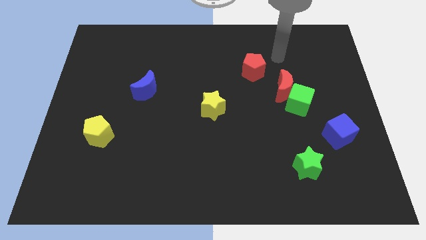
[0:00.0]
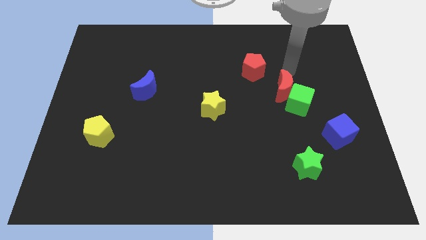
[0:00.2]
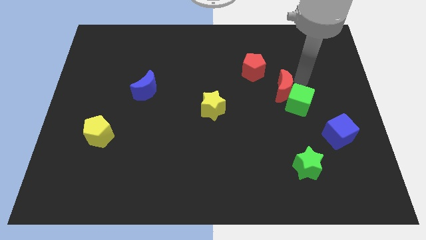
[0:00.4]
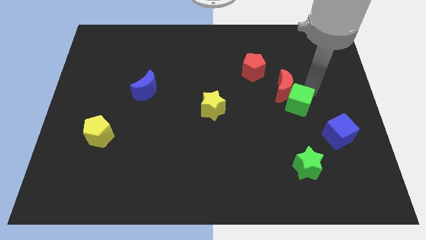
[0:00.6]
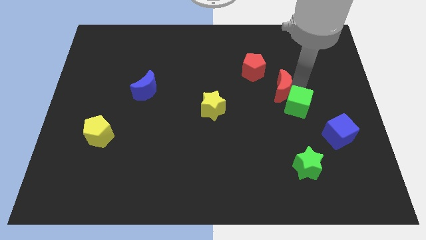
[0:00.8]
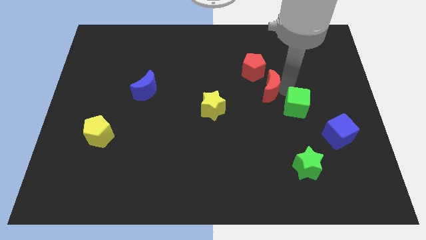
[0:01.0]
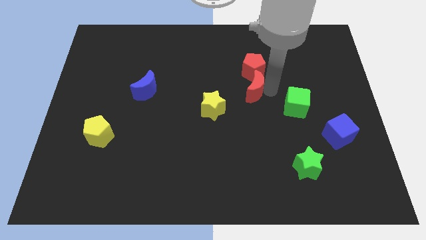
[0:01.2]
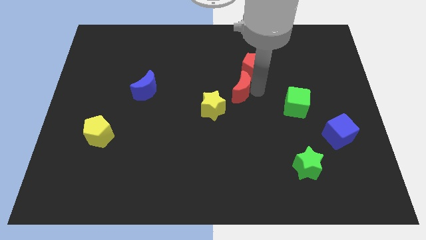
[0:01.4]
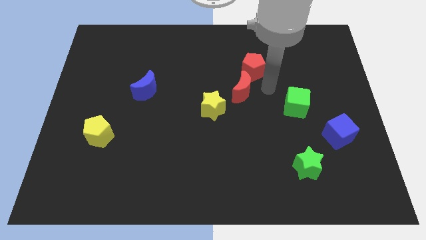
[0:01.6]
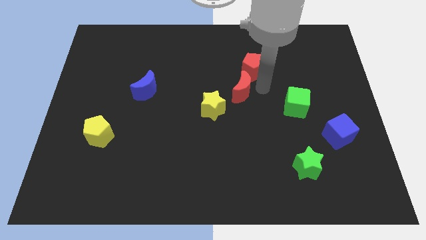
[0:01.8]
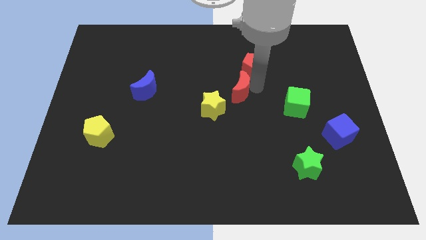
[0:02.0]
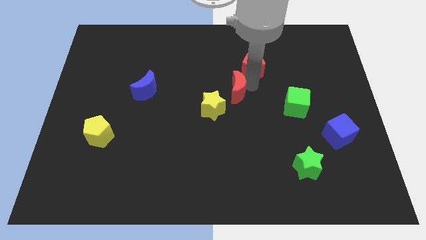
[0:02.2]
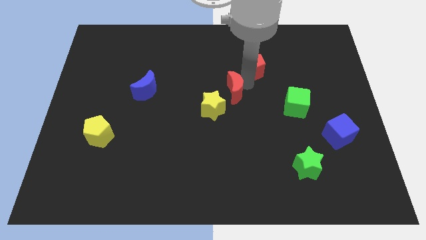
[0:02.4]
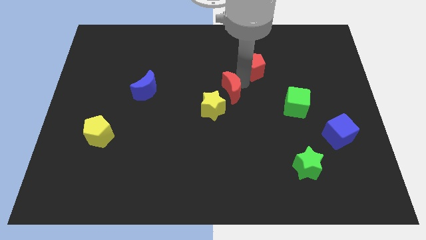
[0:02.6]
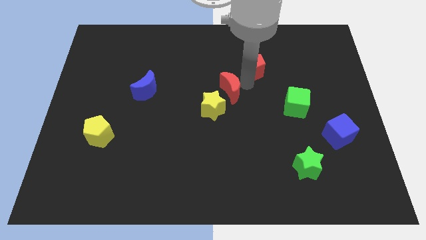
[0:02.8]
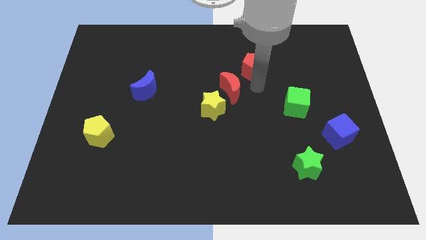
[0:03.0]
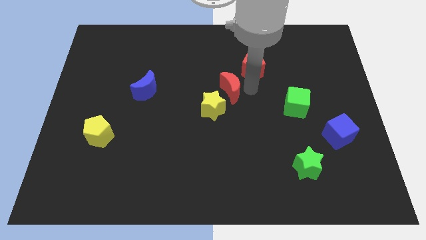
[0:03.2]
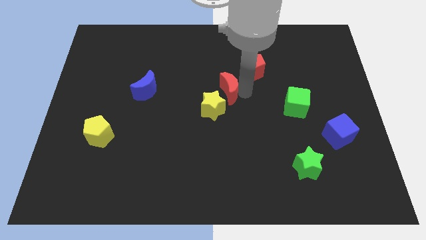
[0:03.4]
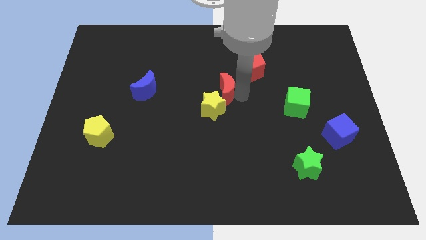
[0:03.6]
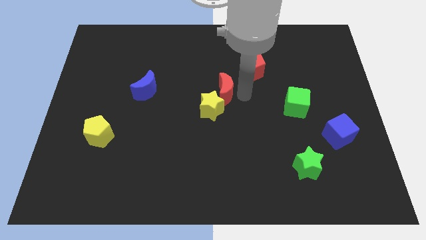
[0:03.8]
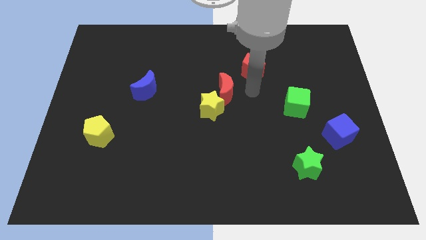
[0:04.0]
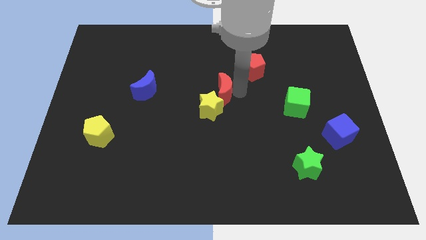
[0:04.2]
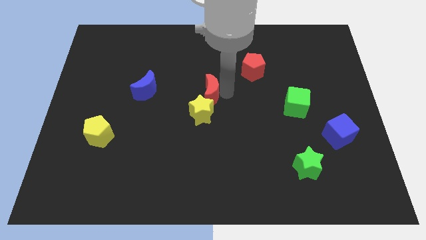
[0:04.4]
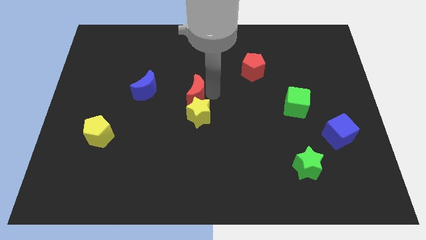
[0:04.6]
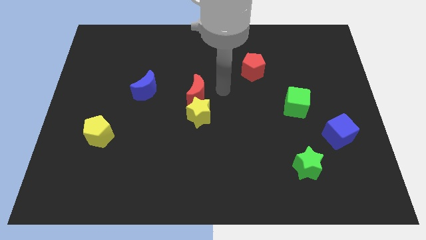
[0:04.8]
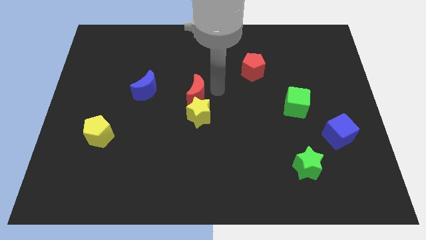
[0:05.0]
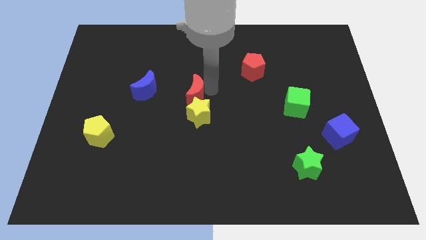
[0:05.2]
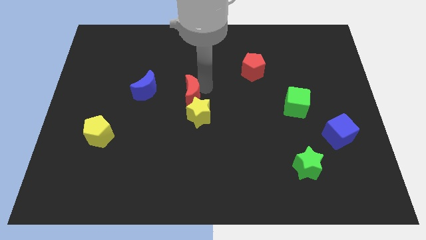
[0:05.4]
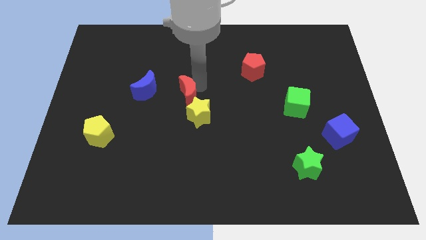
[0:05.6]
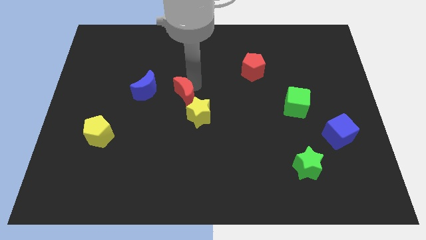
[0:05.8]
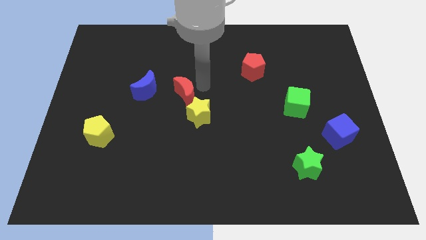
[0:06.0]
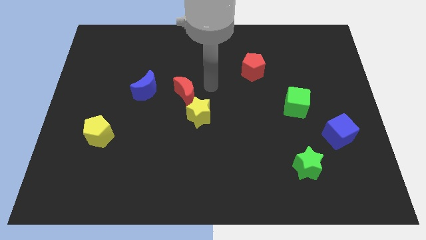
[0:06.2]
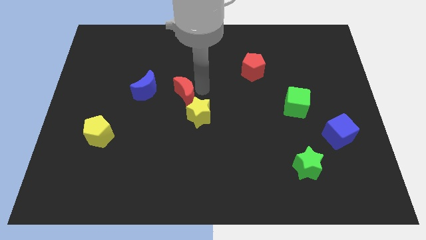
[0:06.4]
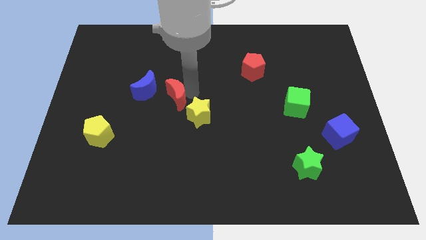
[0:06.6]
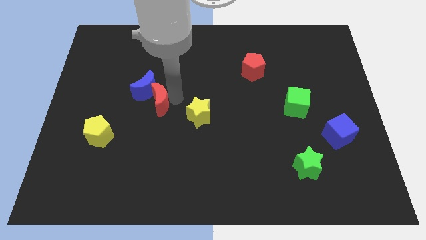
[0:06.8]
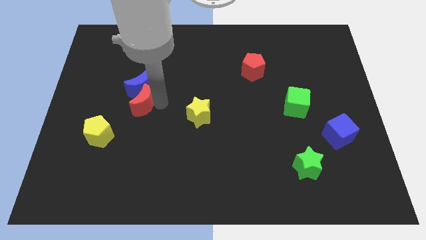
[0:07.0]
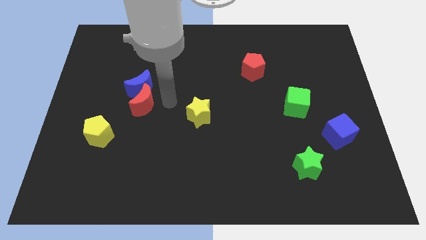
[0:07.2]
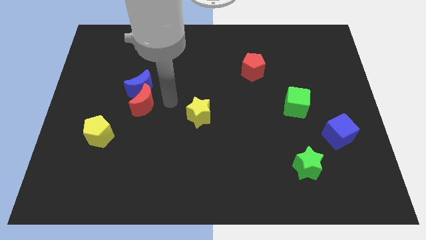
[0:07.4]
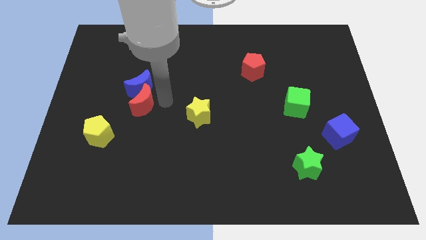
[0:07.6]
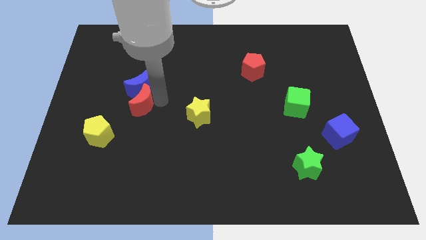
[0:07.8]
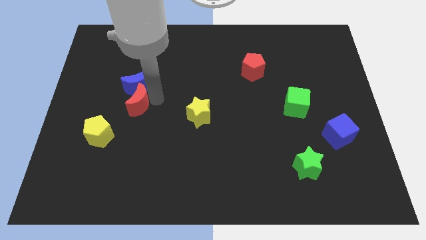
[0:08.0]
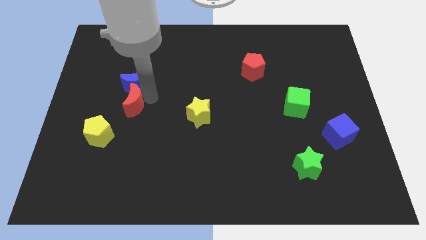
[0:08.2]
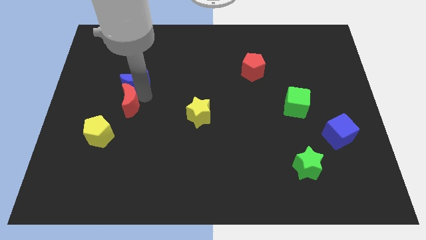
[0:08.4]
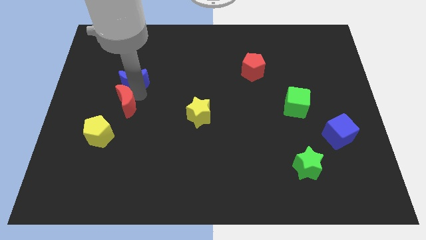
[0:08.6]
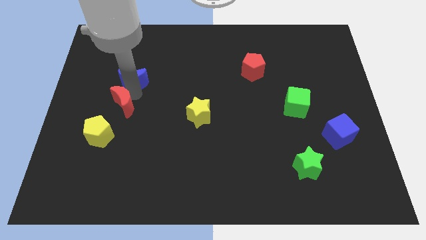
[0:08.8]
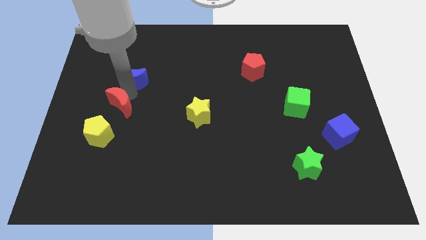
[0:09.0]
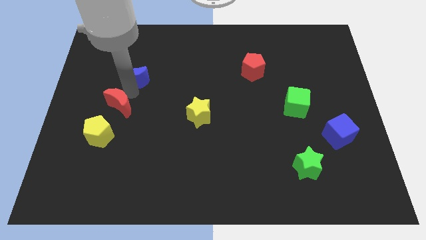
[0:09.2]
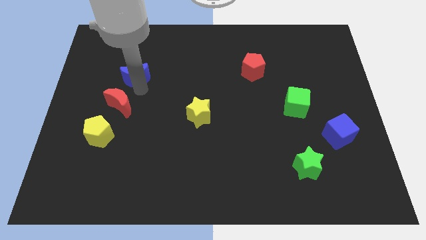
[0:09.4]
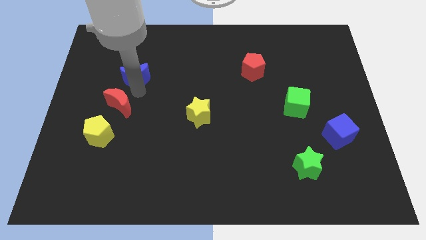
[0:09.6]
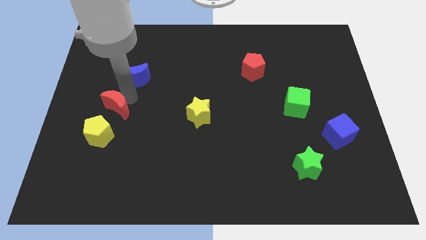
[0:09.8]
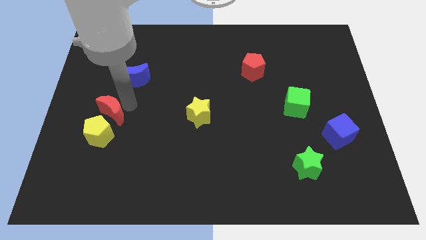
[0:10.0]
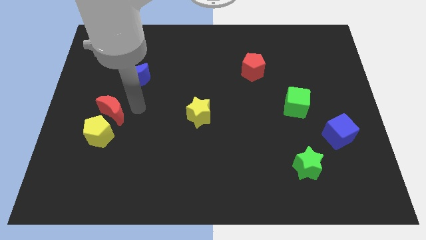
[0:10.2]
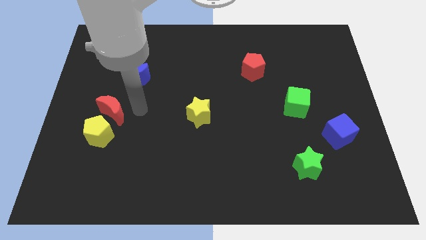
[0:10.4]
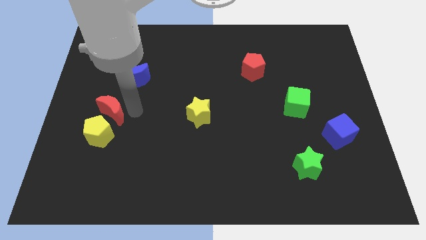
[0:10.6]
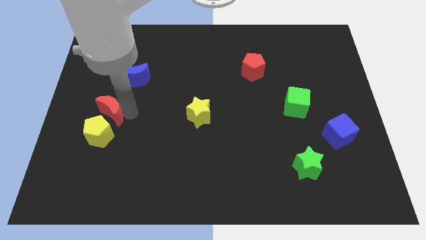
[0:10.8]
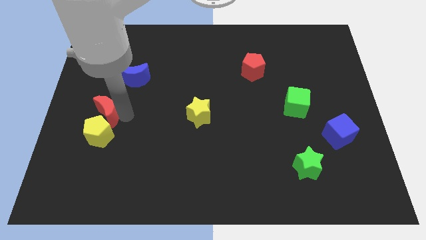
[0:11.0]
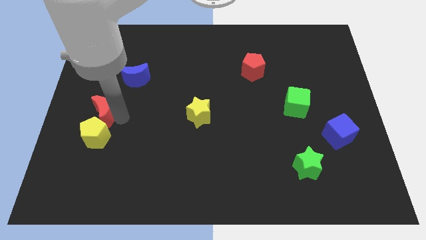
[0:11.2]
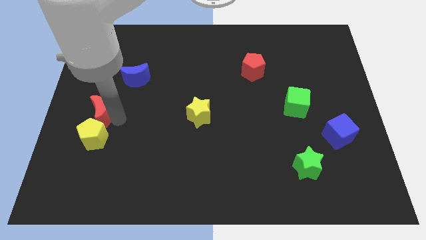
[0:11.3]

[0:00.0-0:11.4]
push the red moon to the left side

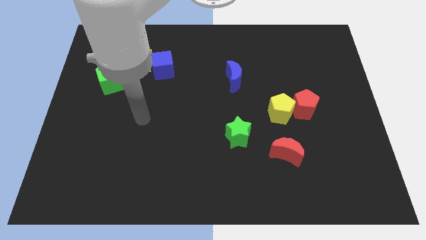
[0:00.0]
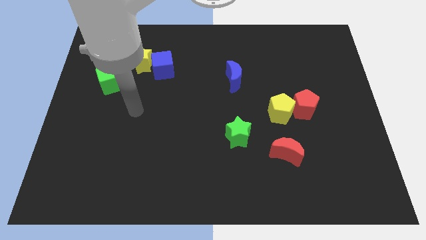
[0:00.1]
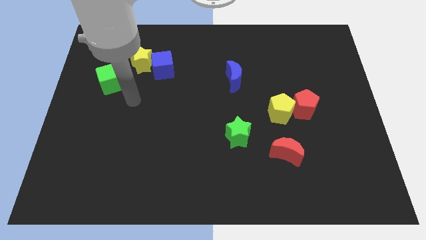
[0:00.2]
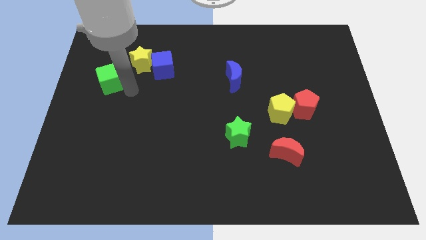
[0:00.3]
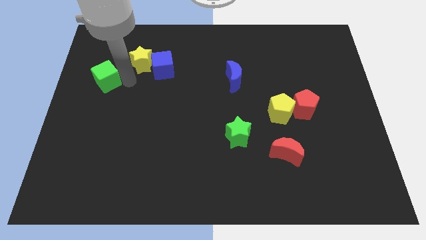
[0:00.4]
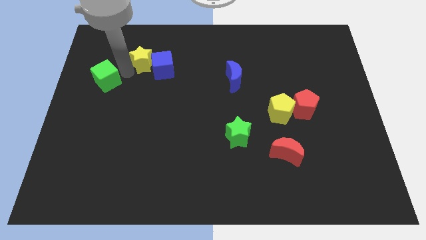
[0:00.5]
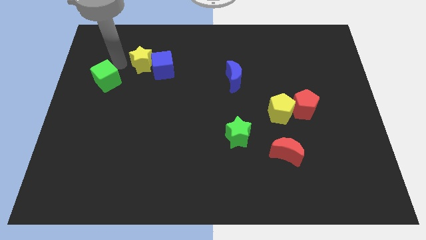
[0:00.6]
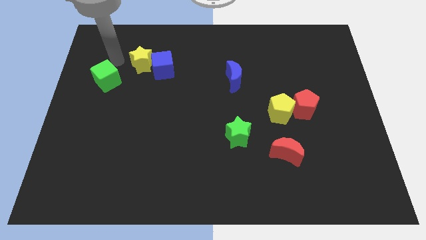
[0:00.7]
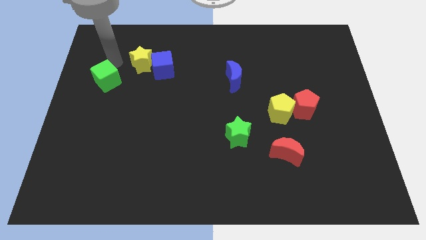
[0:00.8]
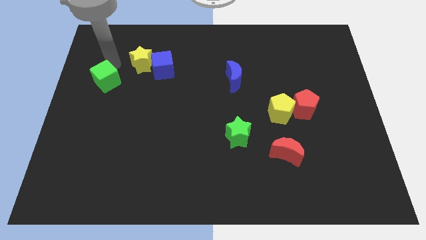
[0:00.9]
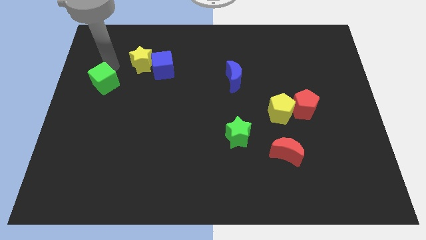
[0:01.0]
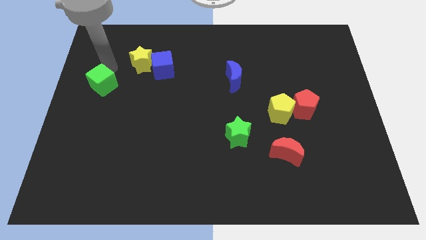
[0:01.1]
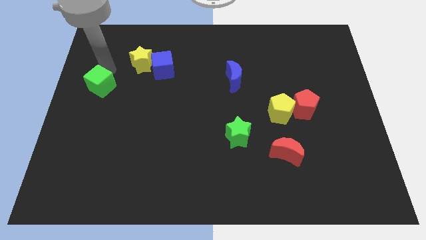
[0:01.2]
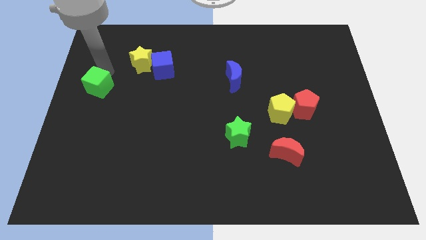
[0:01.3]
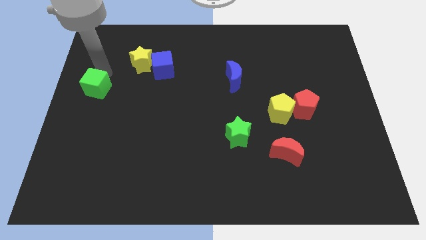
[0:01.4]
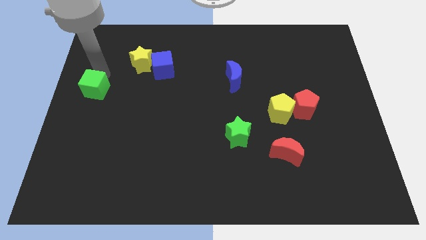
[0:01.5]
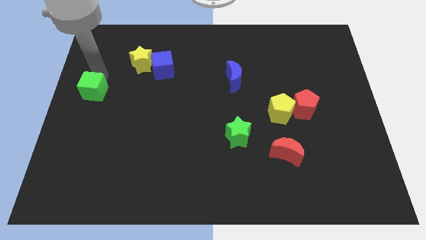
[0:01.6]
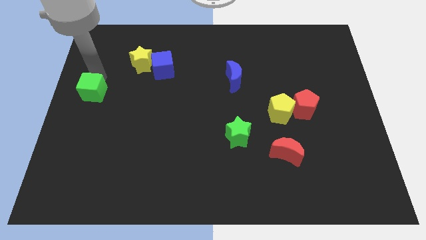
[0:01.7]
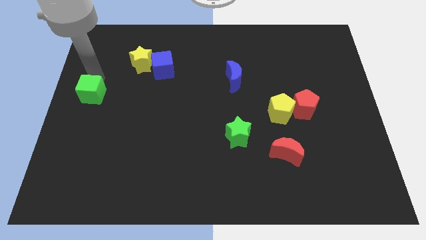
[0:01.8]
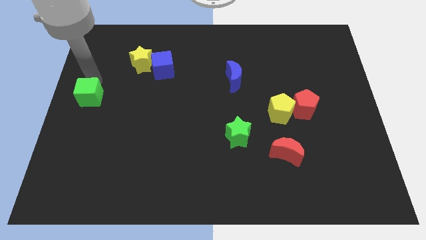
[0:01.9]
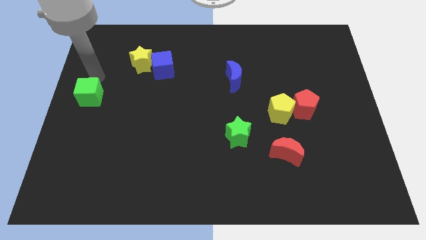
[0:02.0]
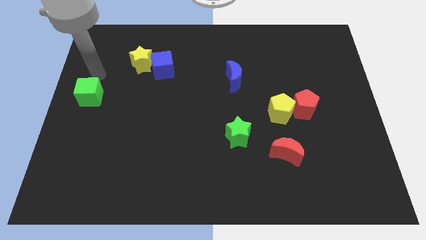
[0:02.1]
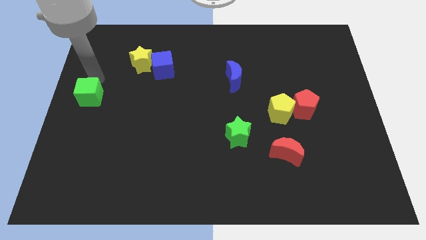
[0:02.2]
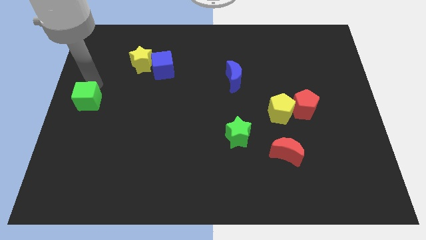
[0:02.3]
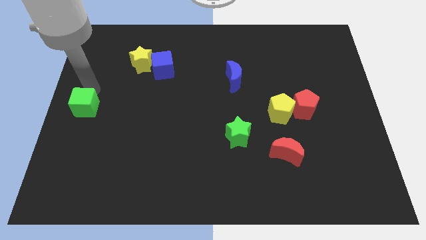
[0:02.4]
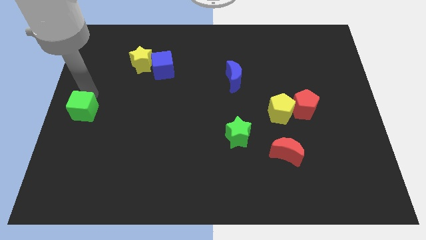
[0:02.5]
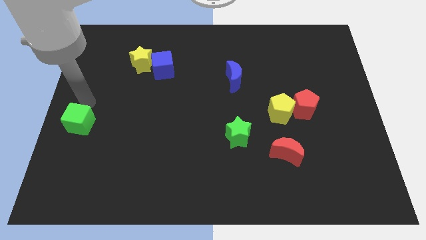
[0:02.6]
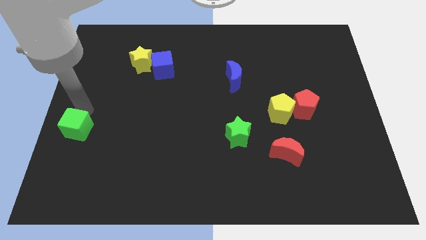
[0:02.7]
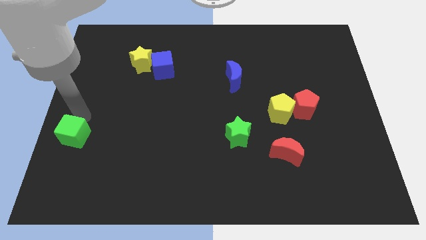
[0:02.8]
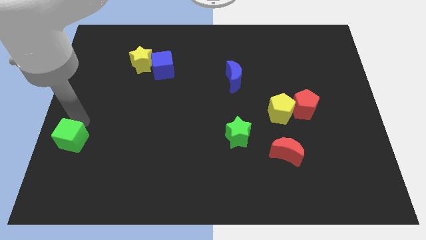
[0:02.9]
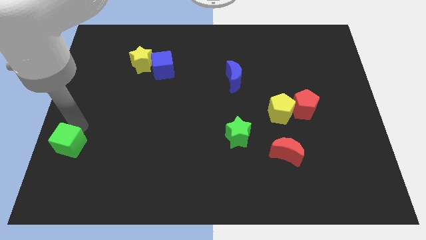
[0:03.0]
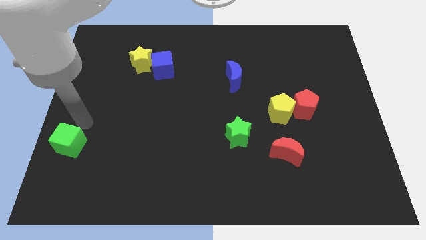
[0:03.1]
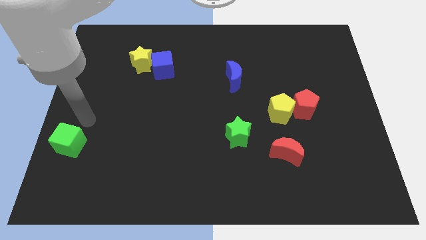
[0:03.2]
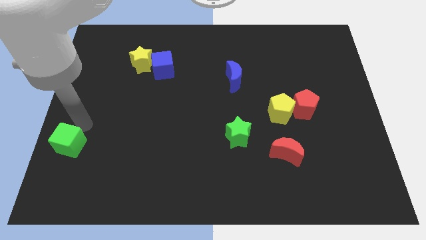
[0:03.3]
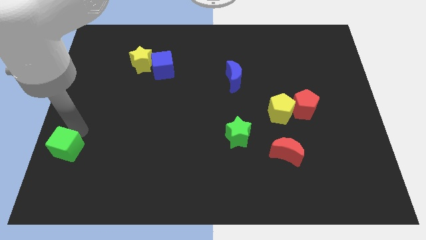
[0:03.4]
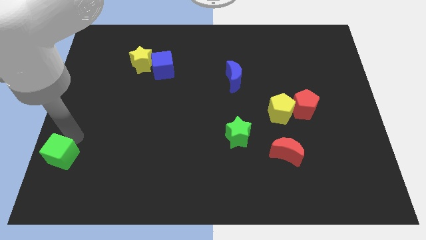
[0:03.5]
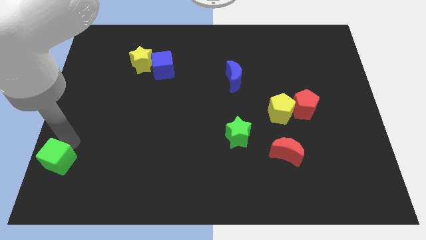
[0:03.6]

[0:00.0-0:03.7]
move the green cube to the bottom left of the board
